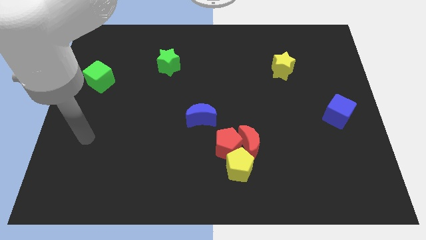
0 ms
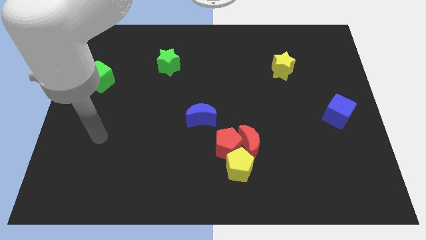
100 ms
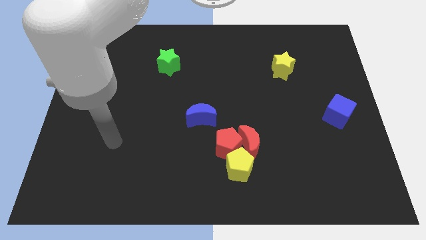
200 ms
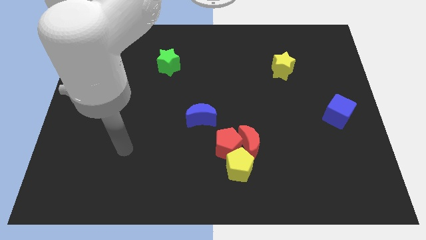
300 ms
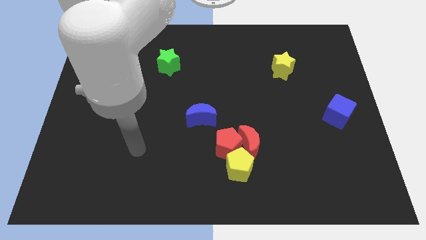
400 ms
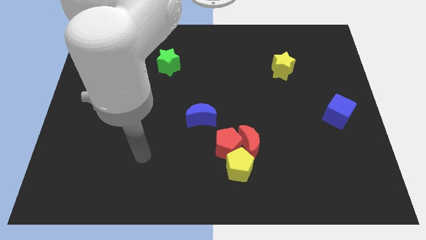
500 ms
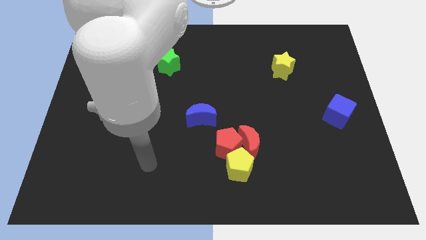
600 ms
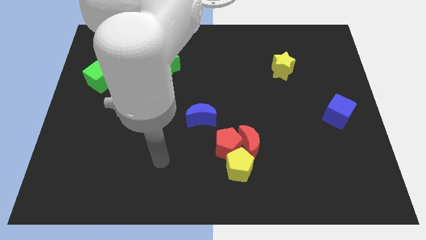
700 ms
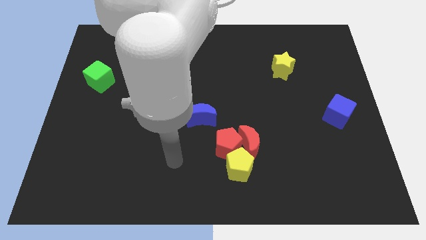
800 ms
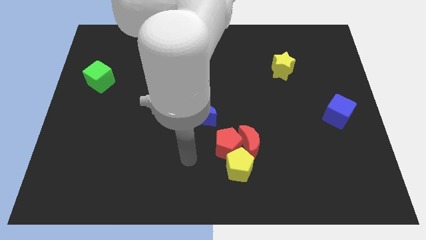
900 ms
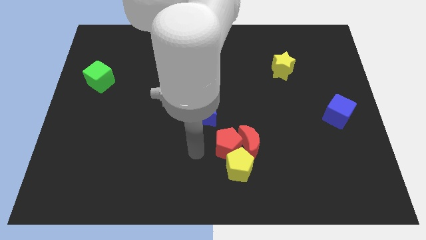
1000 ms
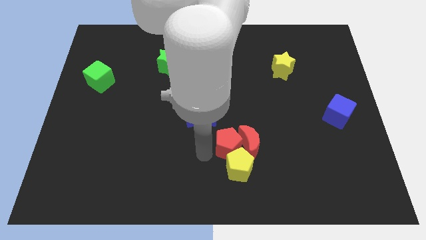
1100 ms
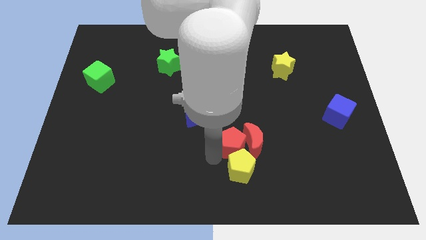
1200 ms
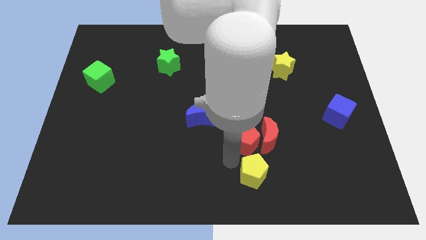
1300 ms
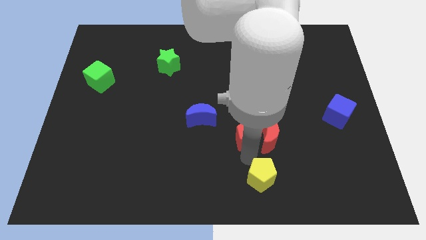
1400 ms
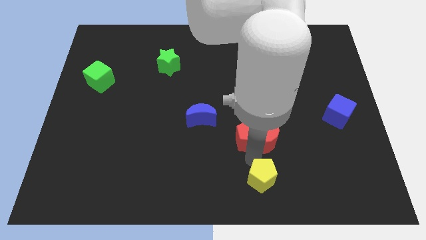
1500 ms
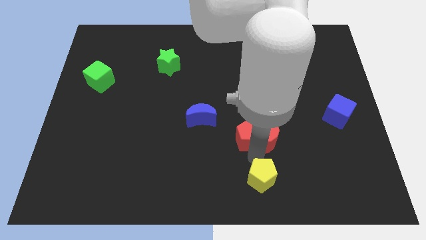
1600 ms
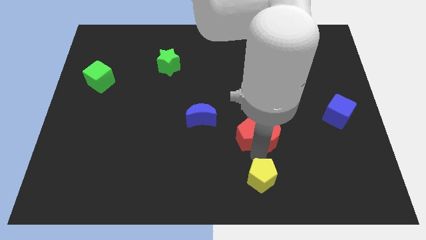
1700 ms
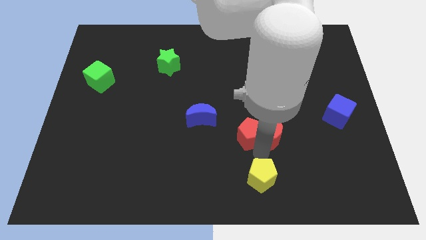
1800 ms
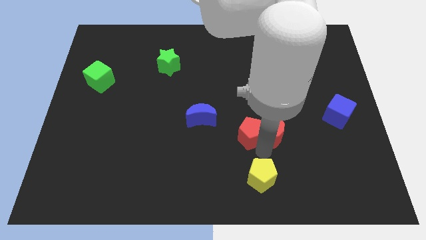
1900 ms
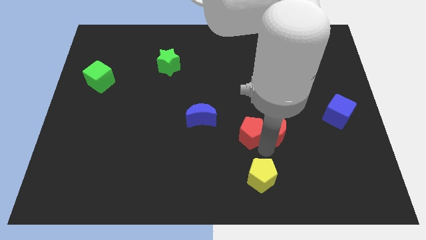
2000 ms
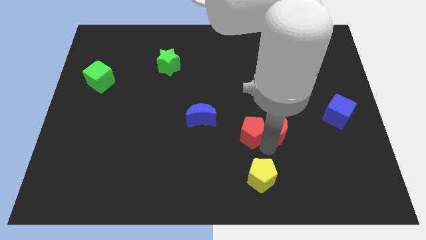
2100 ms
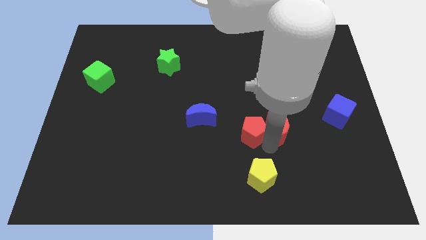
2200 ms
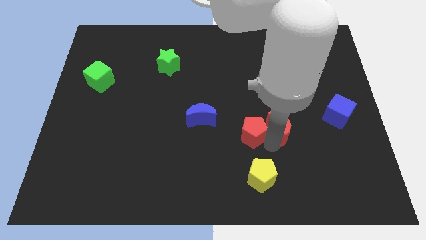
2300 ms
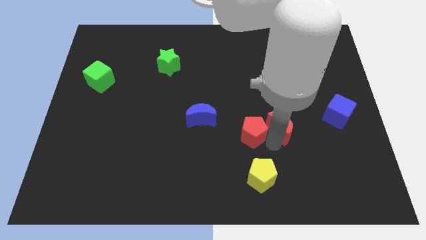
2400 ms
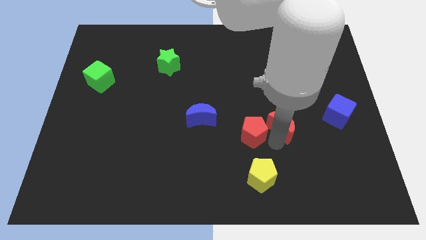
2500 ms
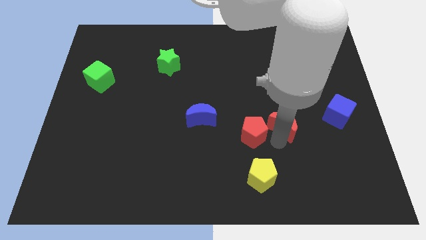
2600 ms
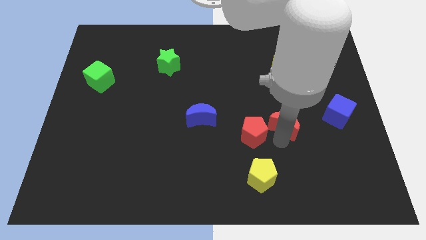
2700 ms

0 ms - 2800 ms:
pull the red moon apart from the red pentagon and yellow pentagon

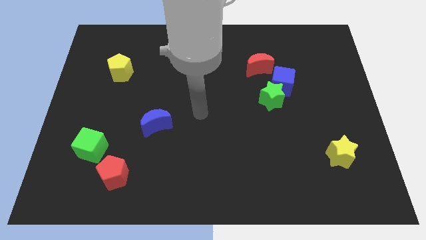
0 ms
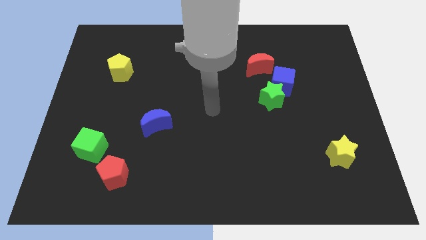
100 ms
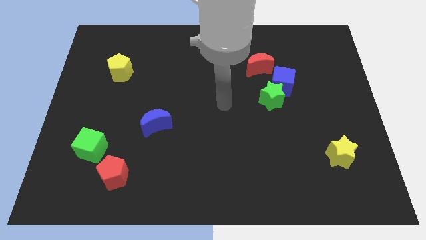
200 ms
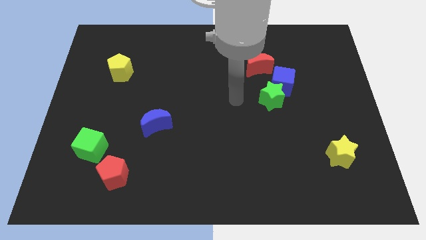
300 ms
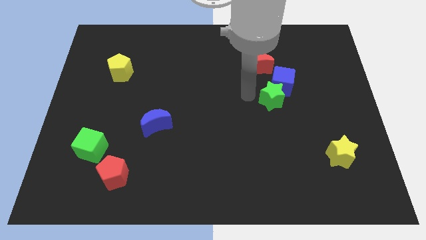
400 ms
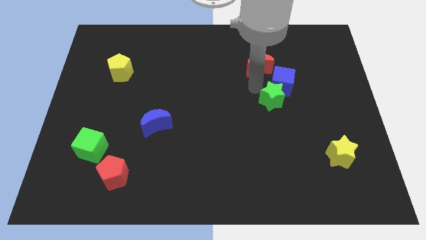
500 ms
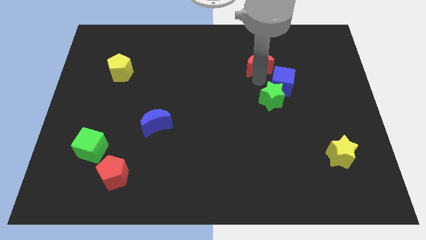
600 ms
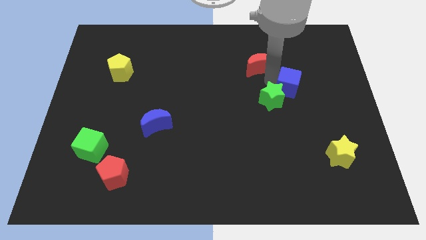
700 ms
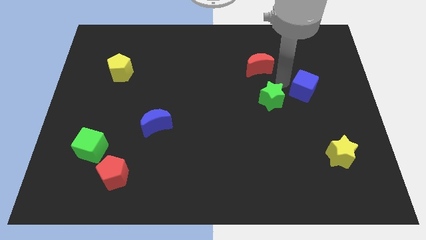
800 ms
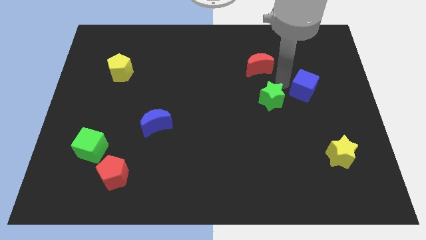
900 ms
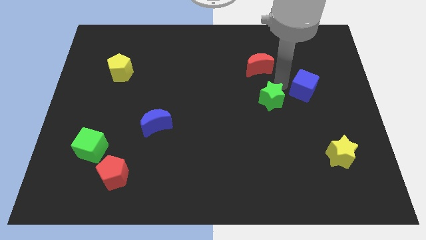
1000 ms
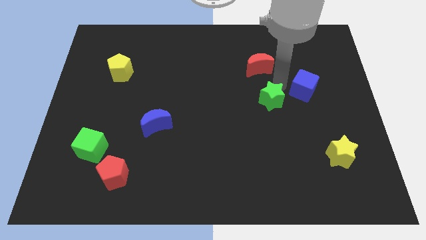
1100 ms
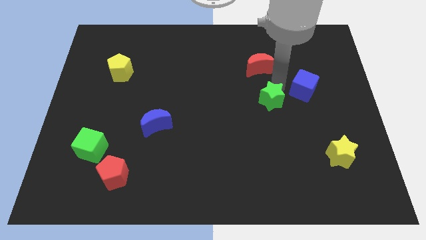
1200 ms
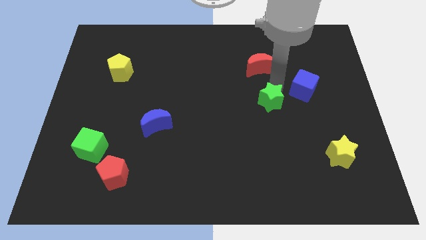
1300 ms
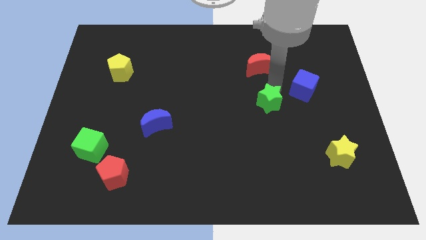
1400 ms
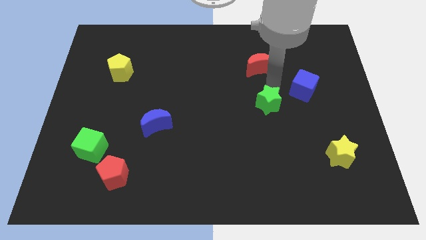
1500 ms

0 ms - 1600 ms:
pull the green star apart from the blue cube

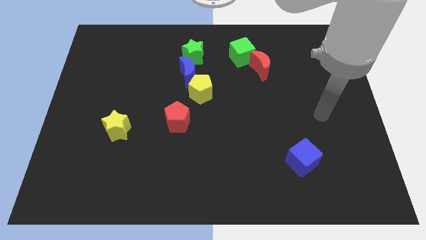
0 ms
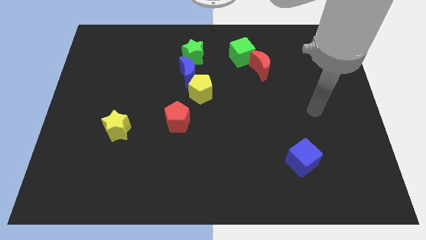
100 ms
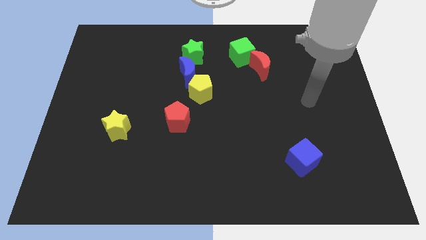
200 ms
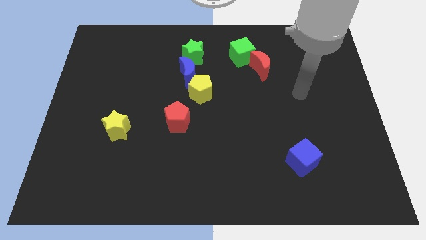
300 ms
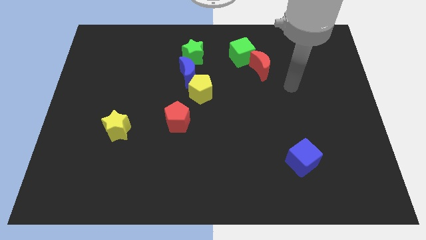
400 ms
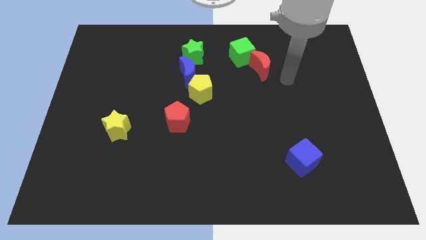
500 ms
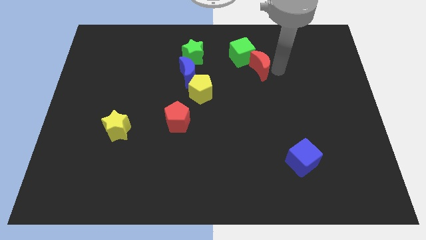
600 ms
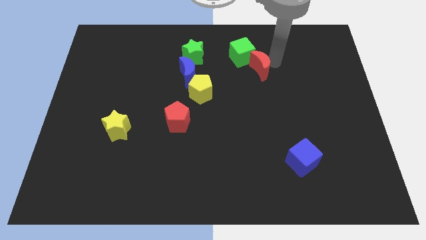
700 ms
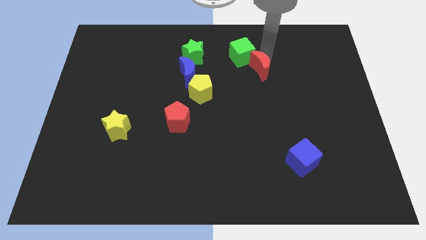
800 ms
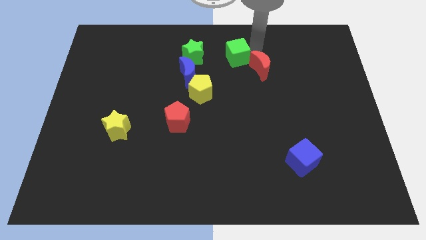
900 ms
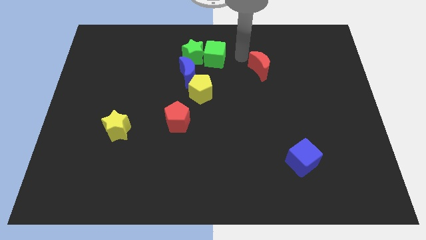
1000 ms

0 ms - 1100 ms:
move the red moon away from the green cube

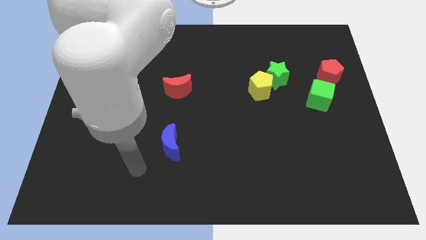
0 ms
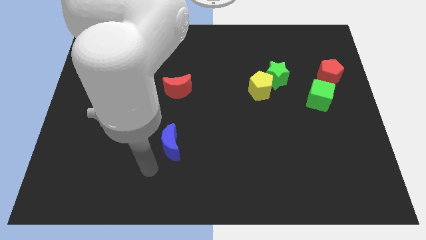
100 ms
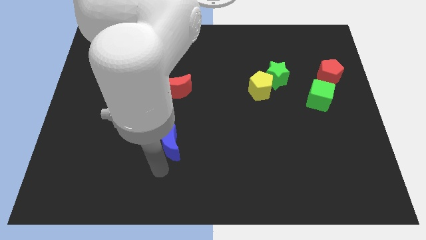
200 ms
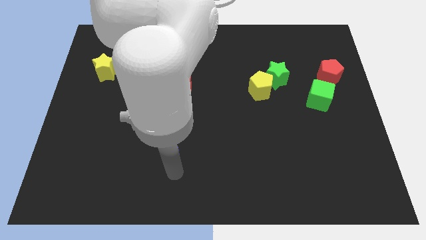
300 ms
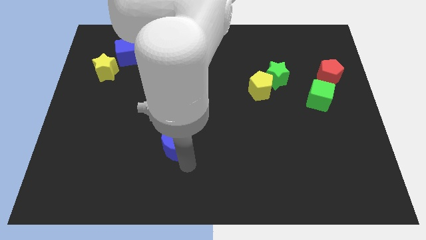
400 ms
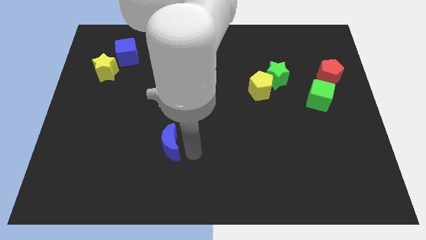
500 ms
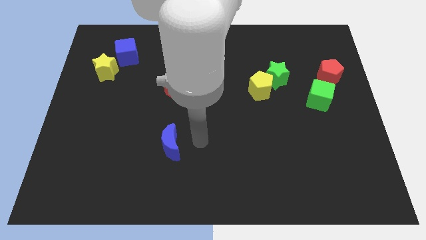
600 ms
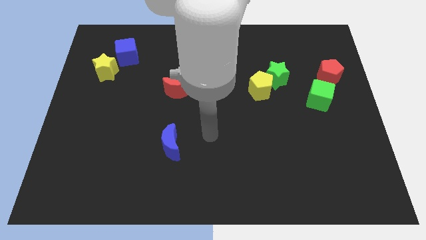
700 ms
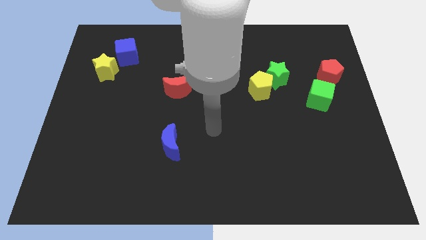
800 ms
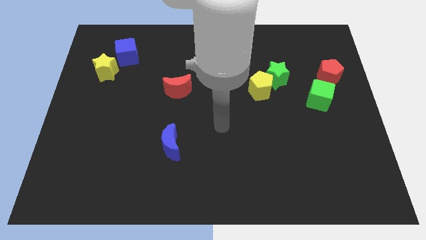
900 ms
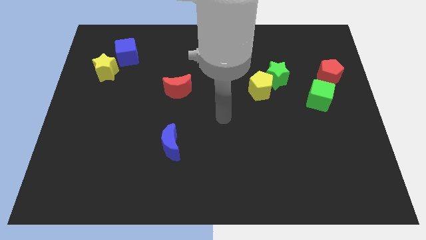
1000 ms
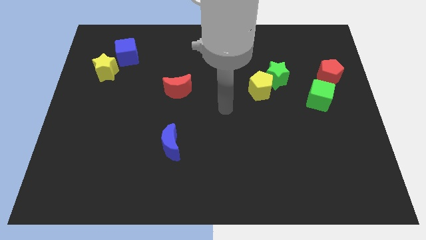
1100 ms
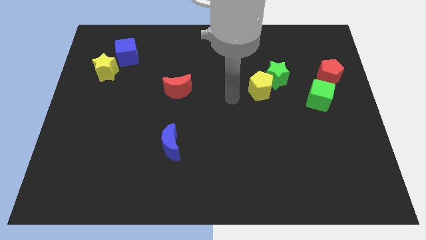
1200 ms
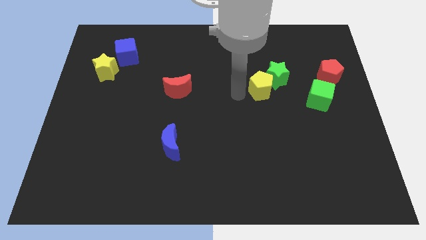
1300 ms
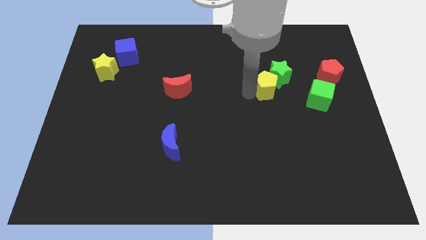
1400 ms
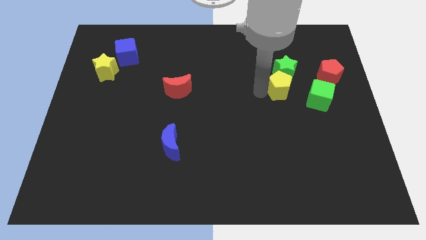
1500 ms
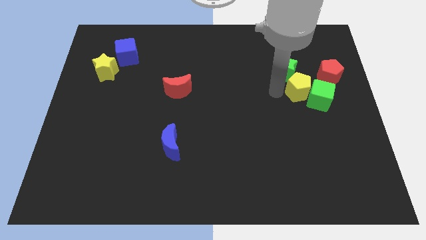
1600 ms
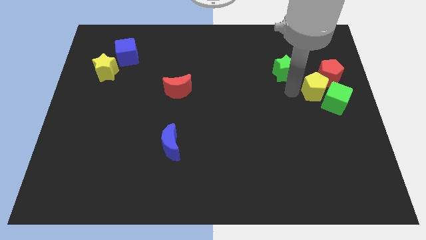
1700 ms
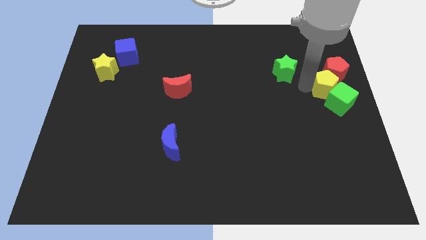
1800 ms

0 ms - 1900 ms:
pull the green star apart from the yellow pentagon

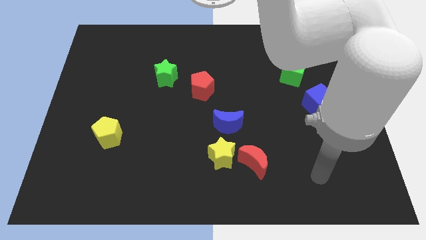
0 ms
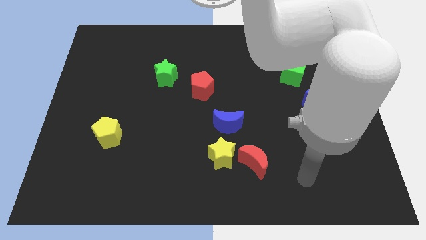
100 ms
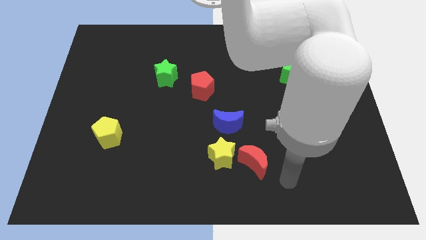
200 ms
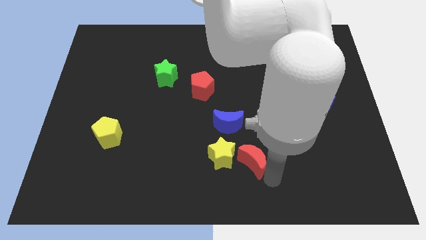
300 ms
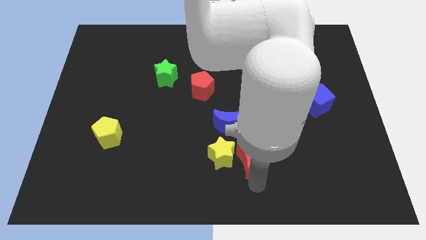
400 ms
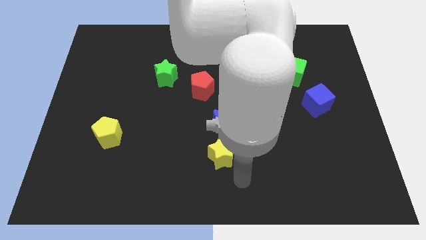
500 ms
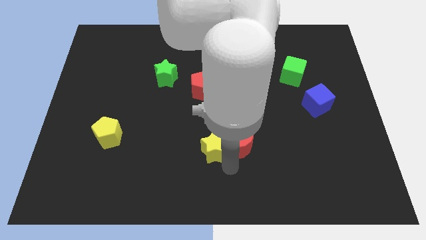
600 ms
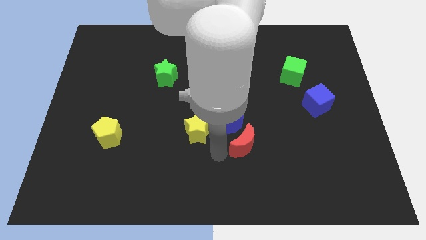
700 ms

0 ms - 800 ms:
pull the red moon apart from the yellow star

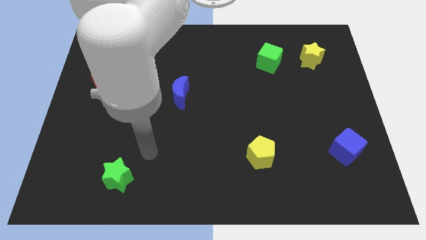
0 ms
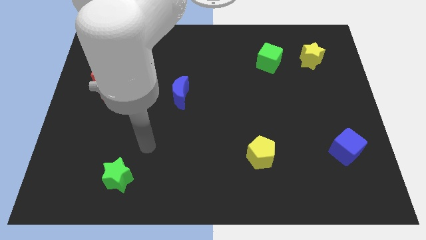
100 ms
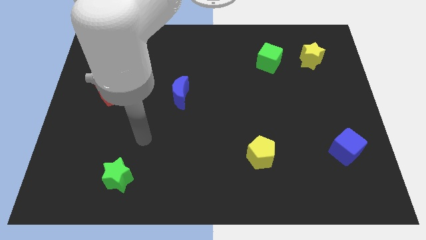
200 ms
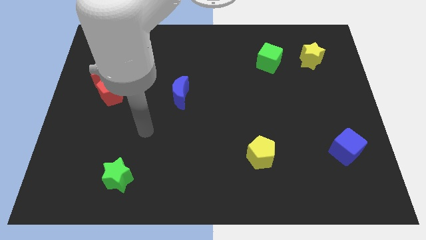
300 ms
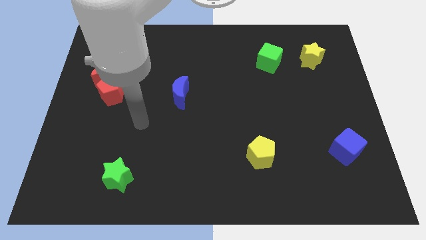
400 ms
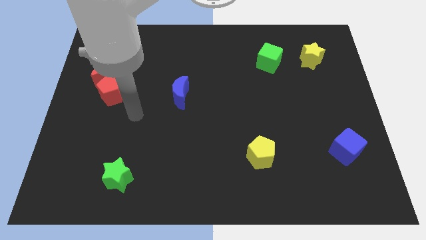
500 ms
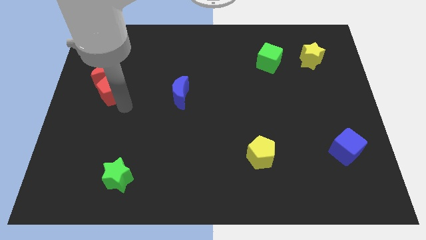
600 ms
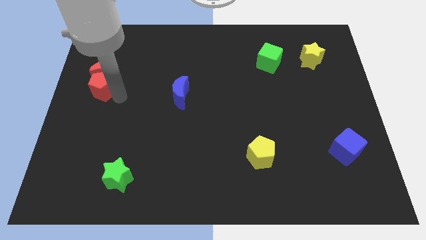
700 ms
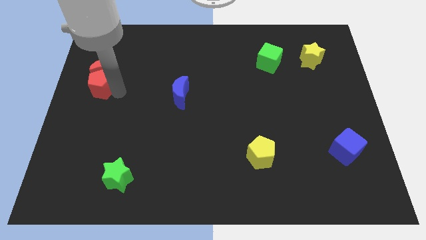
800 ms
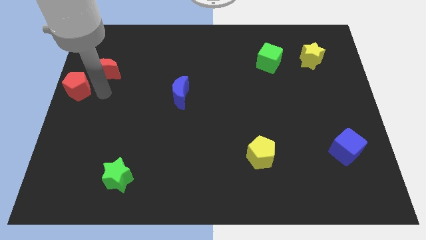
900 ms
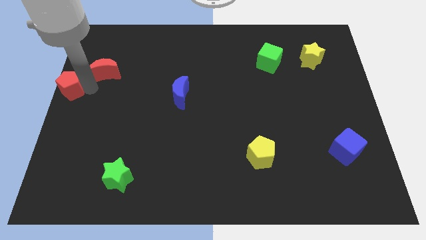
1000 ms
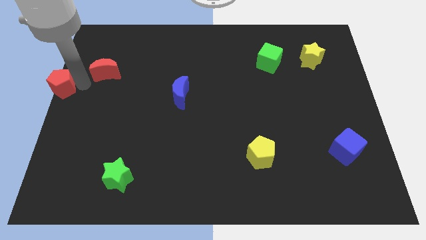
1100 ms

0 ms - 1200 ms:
separate the red moon from the red pentagon
